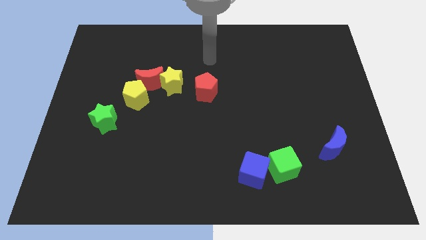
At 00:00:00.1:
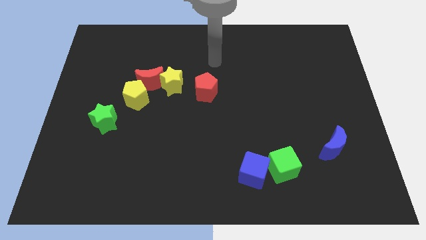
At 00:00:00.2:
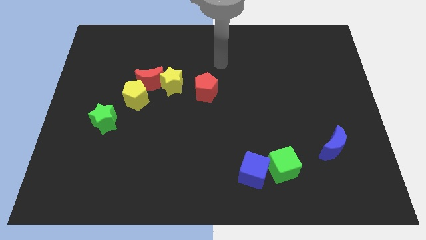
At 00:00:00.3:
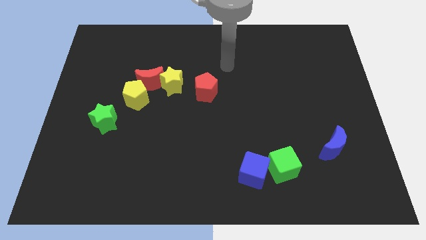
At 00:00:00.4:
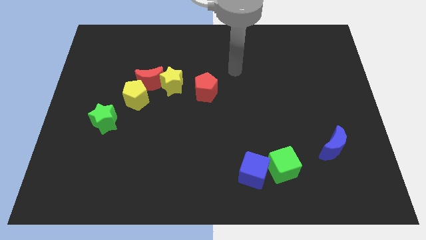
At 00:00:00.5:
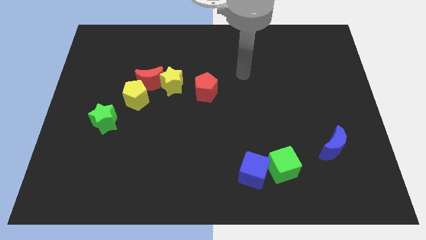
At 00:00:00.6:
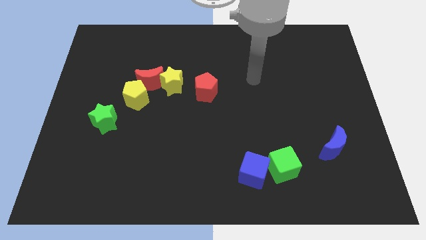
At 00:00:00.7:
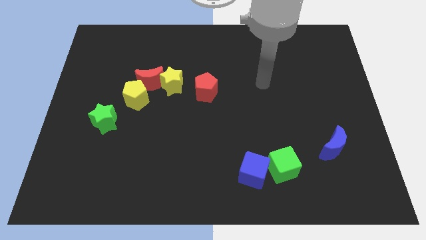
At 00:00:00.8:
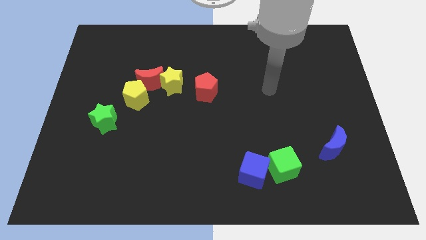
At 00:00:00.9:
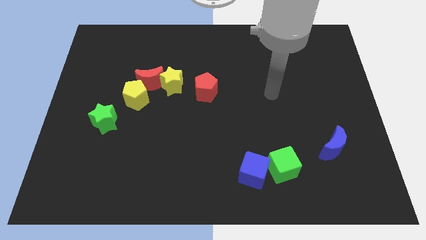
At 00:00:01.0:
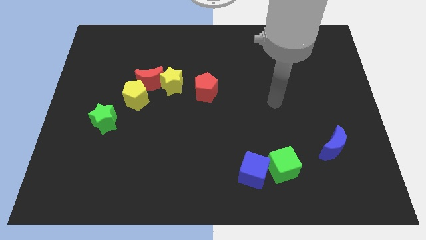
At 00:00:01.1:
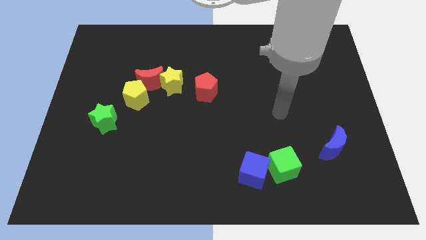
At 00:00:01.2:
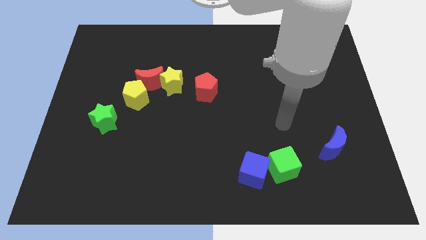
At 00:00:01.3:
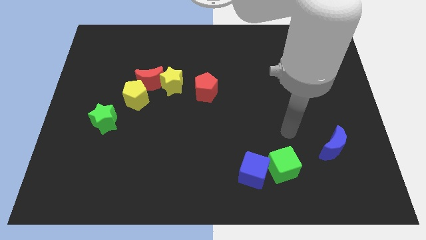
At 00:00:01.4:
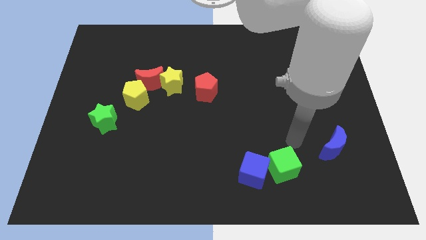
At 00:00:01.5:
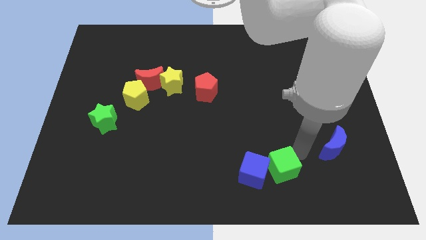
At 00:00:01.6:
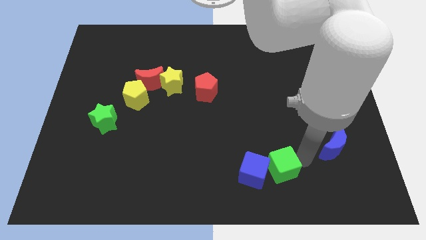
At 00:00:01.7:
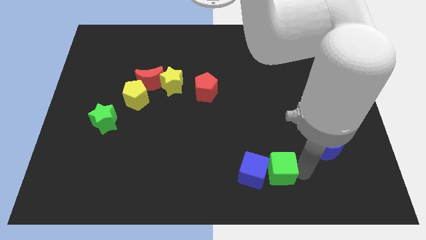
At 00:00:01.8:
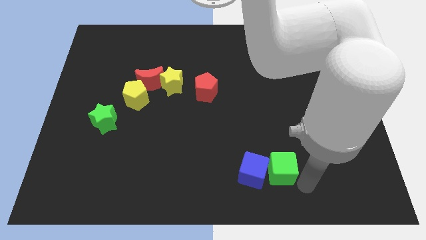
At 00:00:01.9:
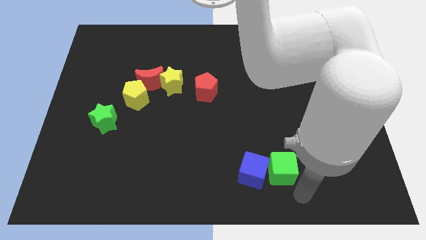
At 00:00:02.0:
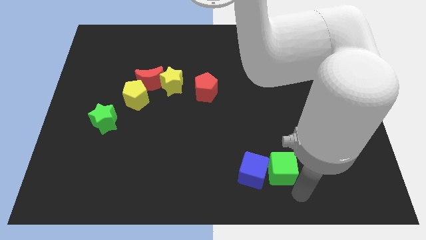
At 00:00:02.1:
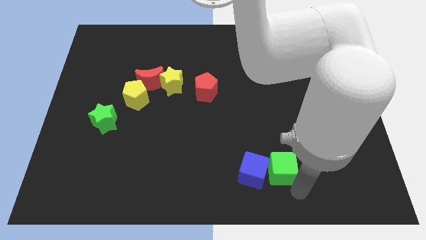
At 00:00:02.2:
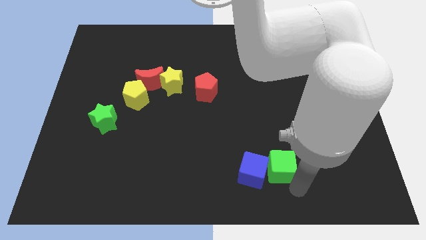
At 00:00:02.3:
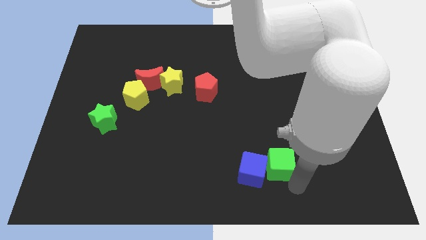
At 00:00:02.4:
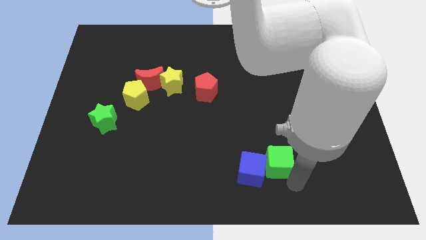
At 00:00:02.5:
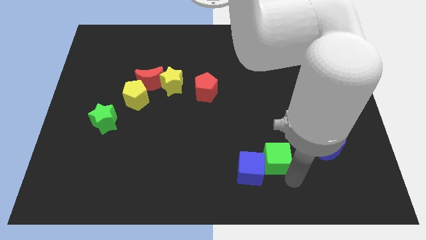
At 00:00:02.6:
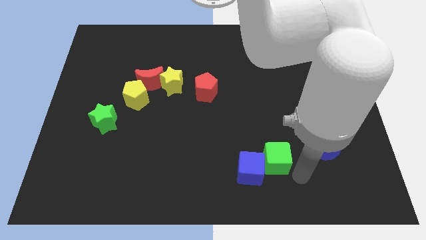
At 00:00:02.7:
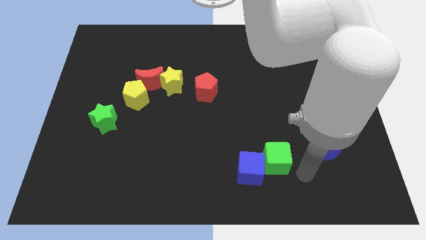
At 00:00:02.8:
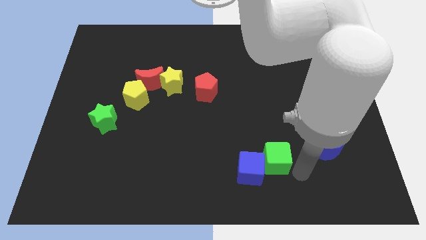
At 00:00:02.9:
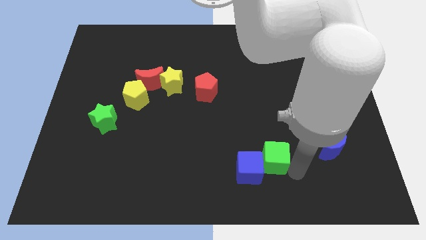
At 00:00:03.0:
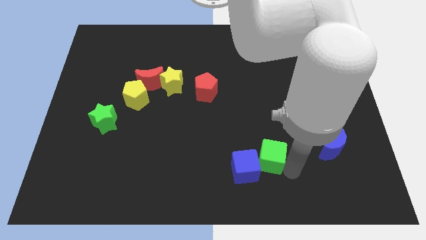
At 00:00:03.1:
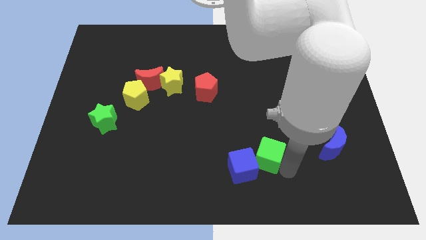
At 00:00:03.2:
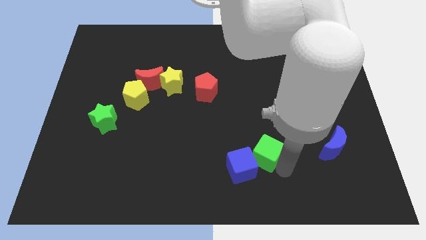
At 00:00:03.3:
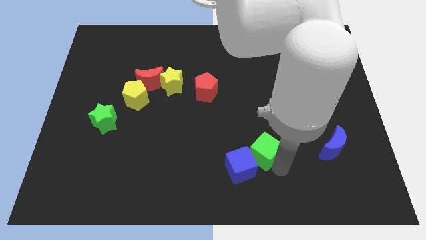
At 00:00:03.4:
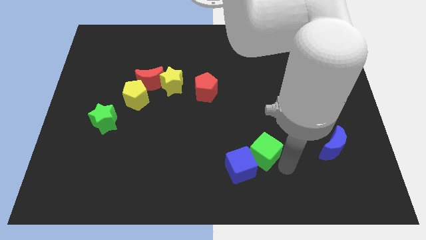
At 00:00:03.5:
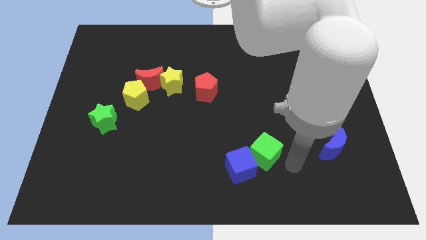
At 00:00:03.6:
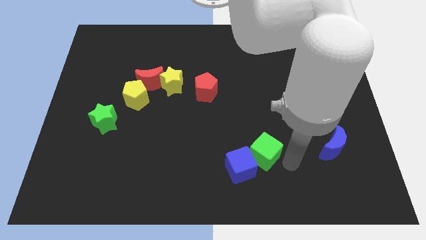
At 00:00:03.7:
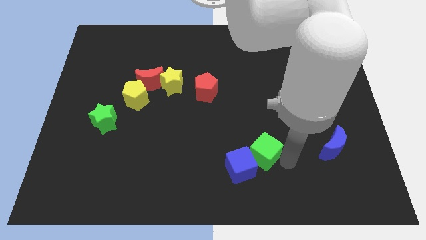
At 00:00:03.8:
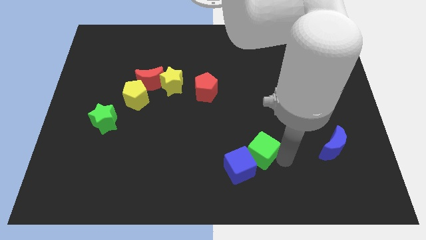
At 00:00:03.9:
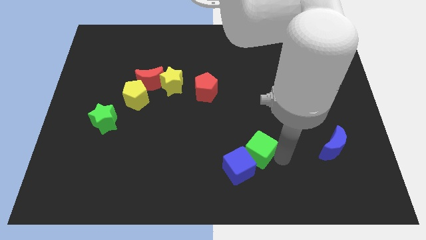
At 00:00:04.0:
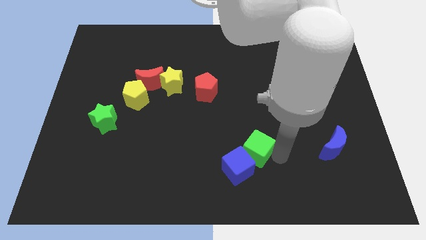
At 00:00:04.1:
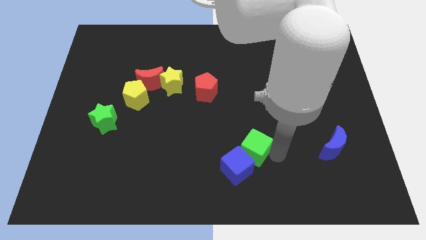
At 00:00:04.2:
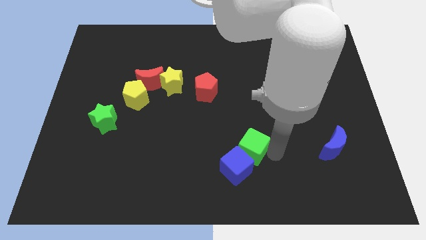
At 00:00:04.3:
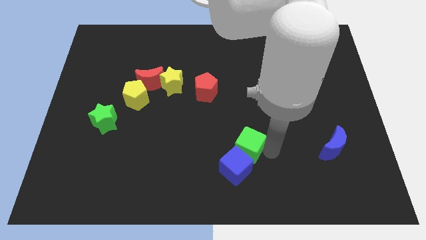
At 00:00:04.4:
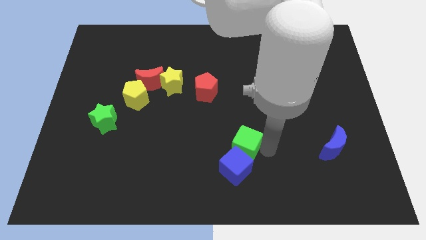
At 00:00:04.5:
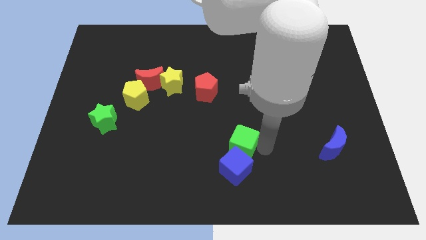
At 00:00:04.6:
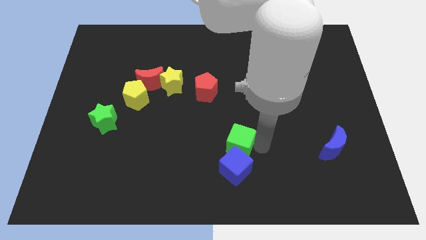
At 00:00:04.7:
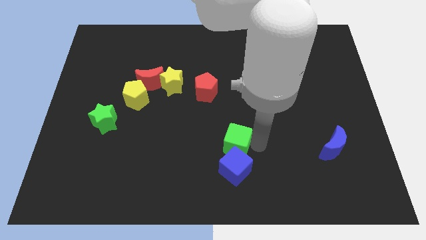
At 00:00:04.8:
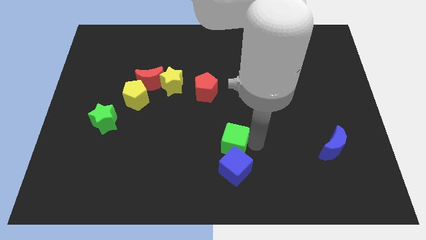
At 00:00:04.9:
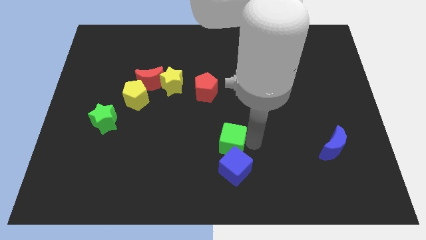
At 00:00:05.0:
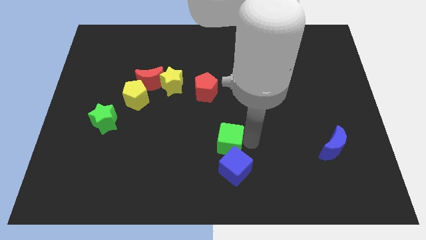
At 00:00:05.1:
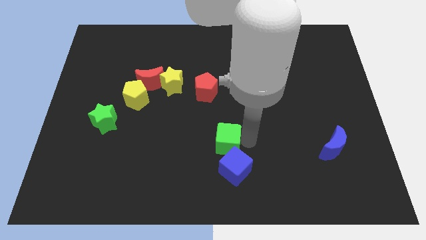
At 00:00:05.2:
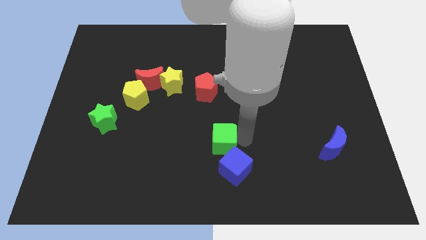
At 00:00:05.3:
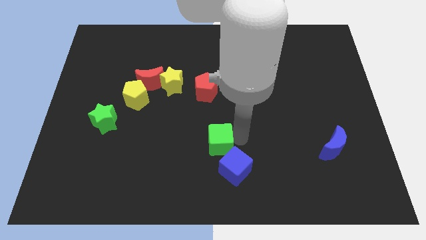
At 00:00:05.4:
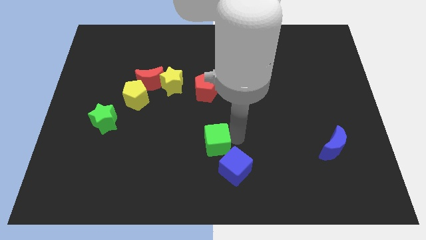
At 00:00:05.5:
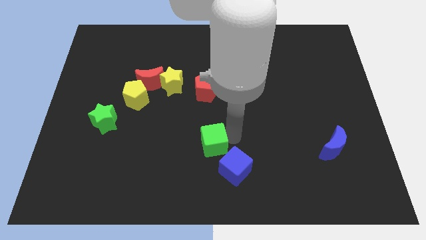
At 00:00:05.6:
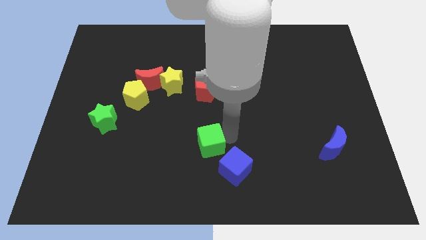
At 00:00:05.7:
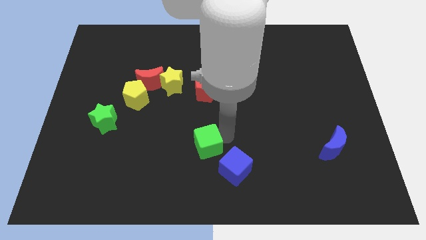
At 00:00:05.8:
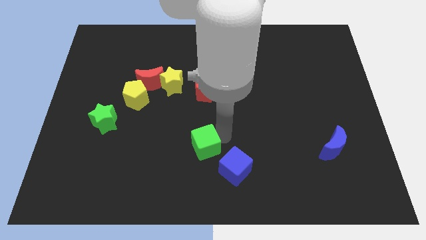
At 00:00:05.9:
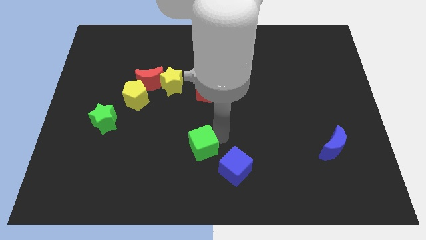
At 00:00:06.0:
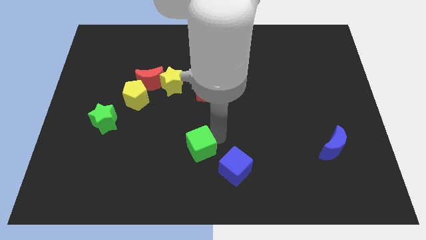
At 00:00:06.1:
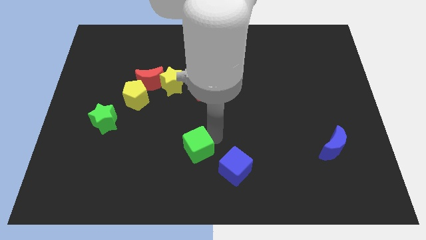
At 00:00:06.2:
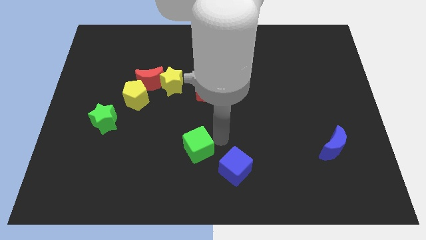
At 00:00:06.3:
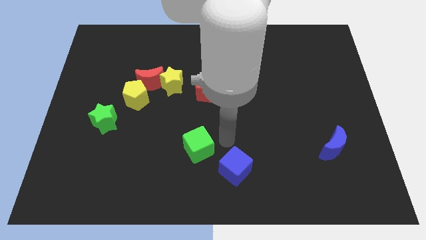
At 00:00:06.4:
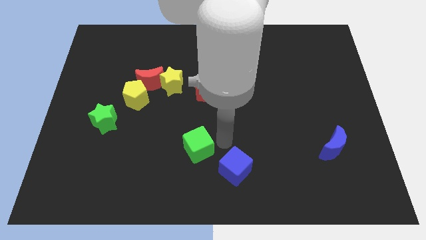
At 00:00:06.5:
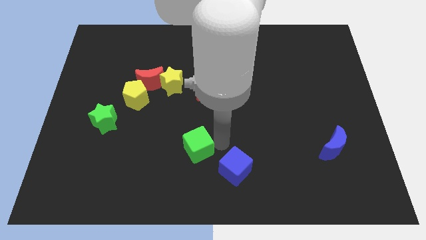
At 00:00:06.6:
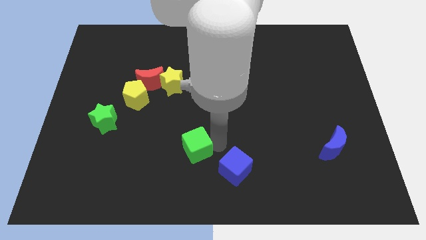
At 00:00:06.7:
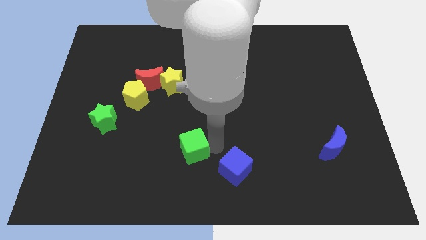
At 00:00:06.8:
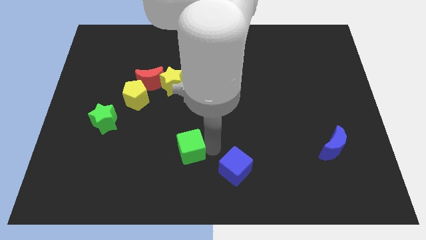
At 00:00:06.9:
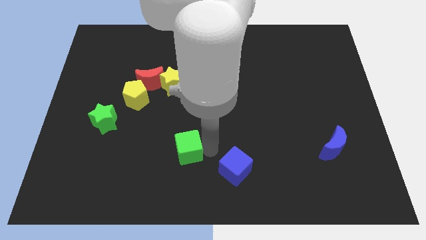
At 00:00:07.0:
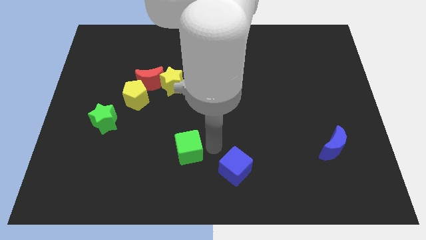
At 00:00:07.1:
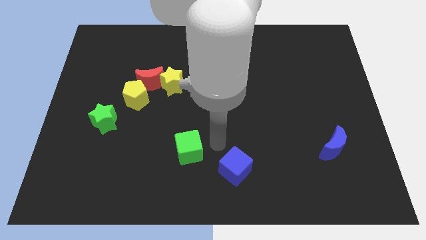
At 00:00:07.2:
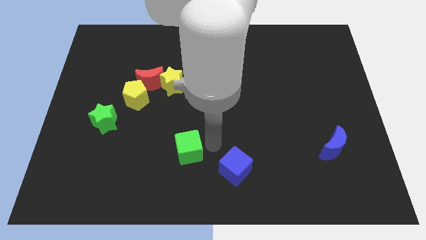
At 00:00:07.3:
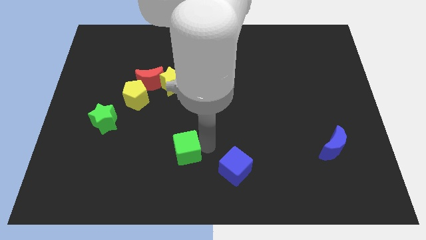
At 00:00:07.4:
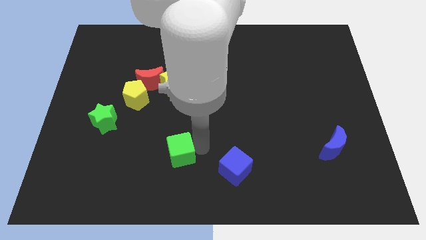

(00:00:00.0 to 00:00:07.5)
push the green cube left

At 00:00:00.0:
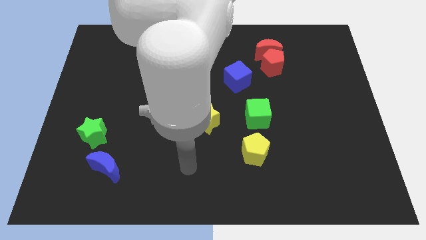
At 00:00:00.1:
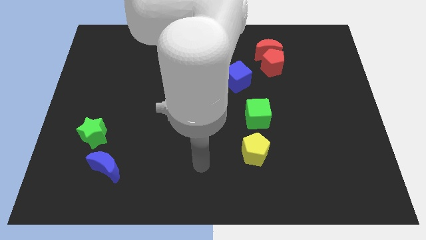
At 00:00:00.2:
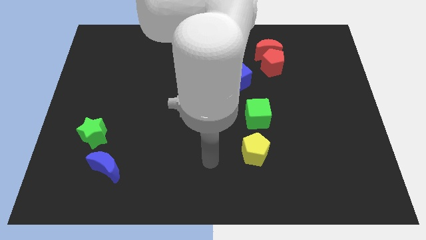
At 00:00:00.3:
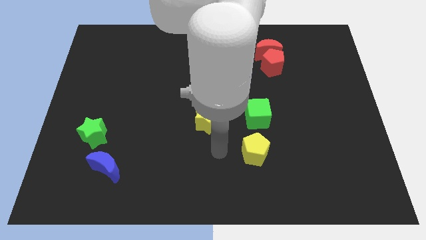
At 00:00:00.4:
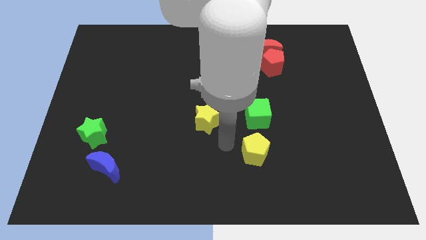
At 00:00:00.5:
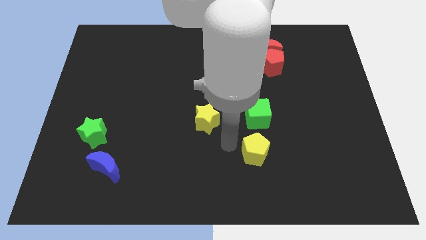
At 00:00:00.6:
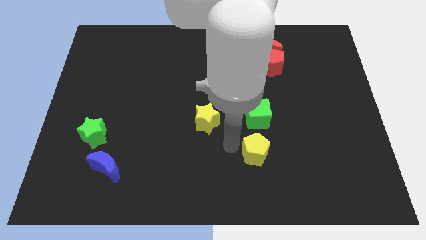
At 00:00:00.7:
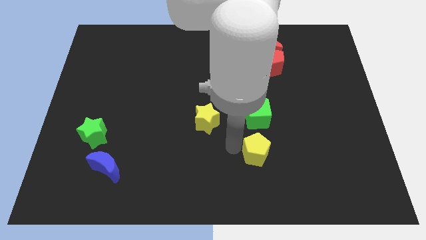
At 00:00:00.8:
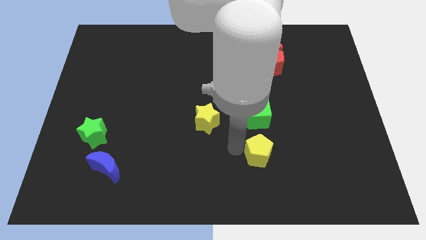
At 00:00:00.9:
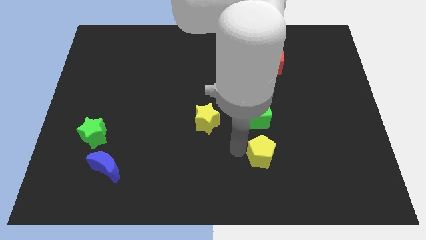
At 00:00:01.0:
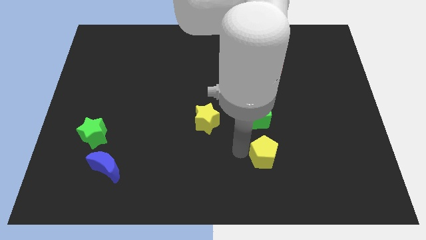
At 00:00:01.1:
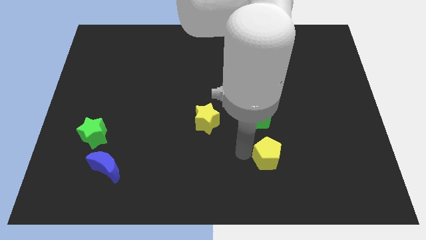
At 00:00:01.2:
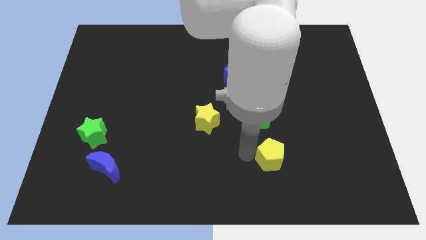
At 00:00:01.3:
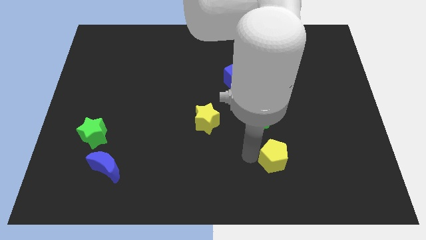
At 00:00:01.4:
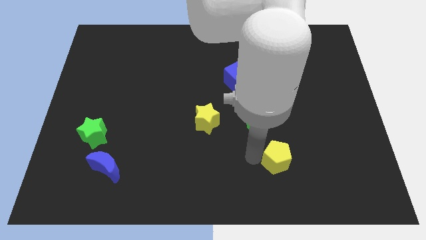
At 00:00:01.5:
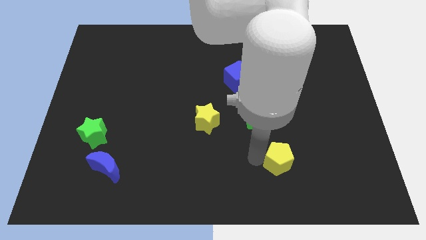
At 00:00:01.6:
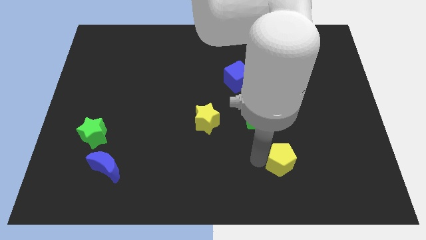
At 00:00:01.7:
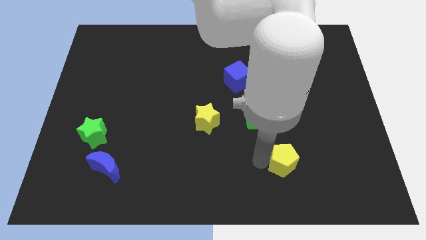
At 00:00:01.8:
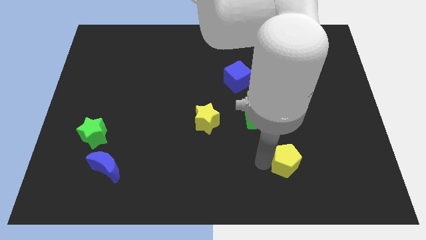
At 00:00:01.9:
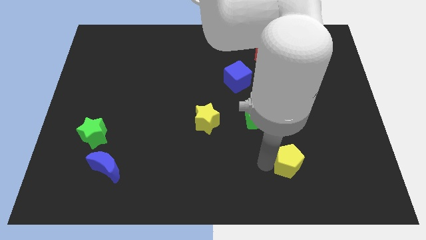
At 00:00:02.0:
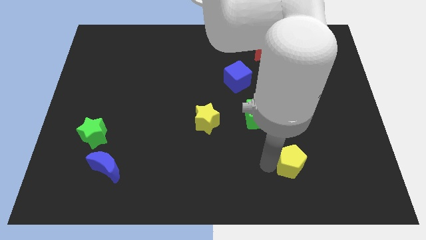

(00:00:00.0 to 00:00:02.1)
push the yellow pentagon slightly right
